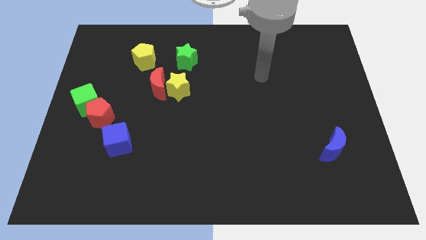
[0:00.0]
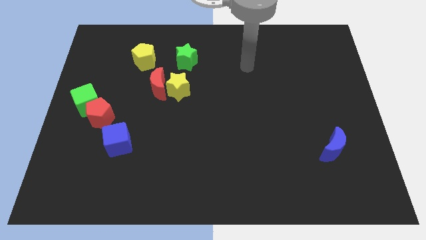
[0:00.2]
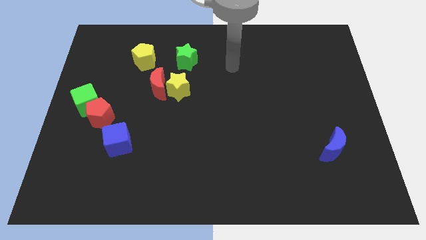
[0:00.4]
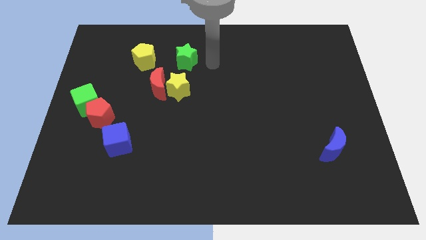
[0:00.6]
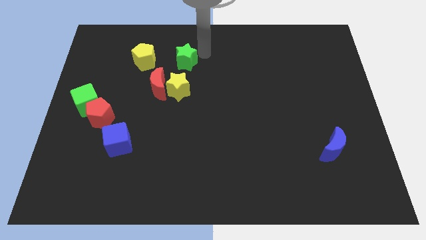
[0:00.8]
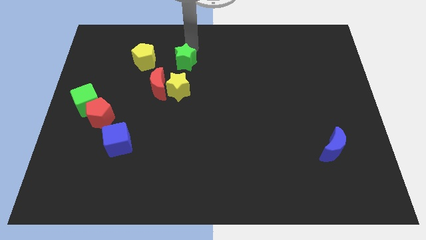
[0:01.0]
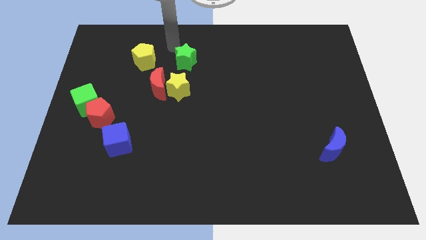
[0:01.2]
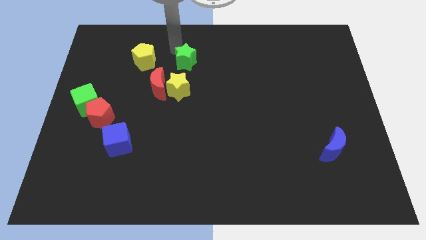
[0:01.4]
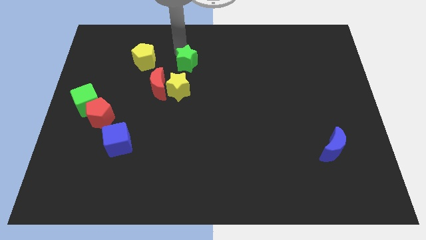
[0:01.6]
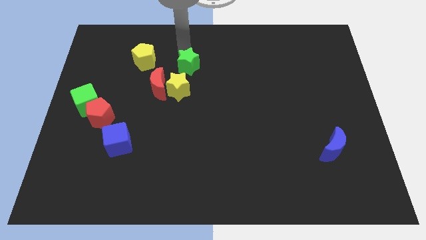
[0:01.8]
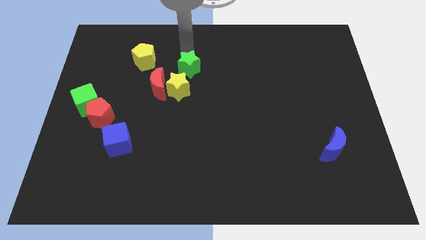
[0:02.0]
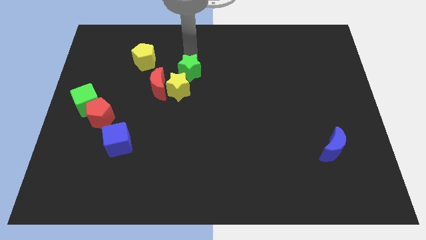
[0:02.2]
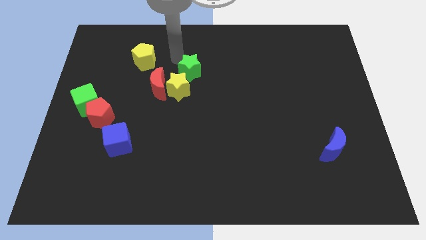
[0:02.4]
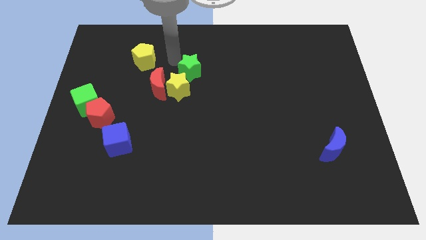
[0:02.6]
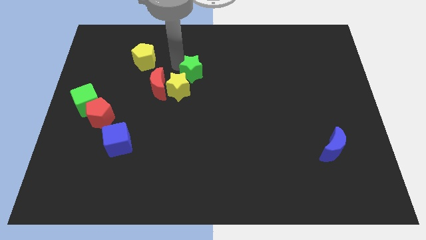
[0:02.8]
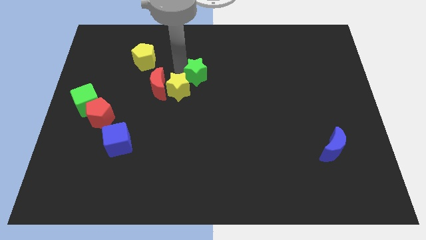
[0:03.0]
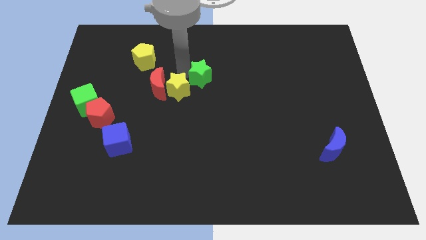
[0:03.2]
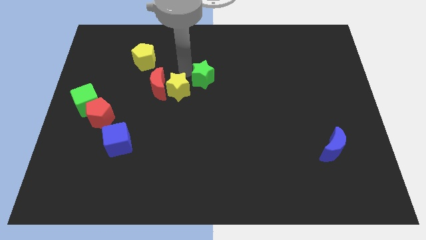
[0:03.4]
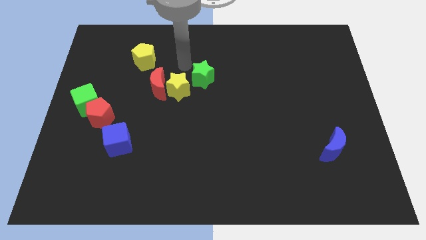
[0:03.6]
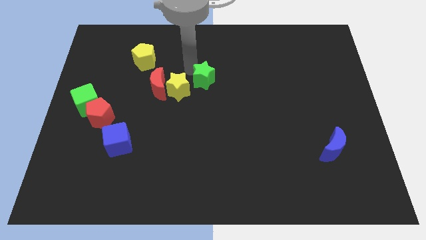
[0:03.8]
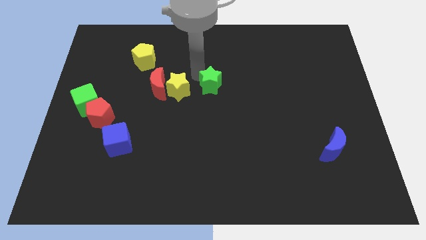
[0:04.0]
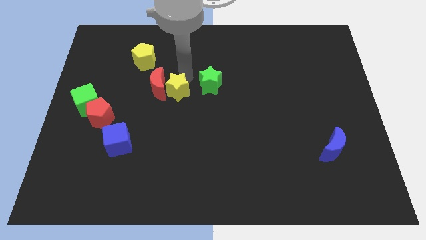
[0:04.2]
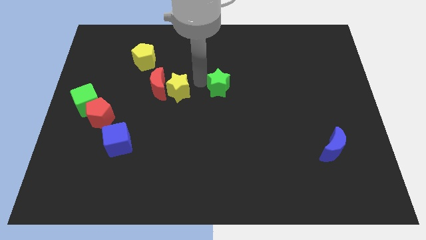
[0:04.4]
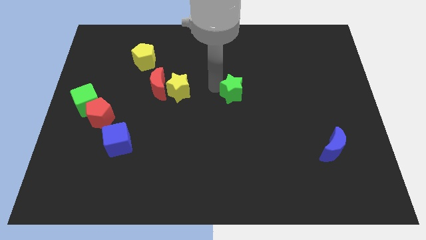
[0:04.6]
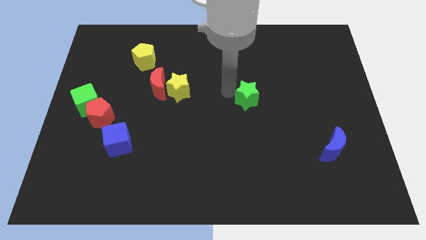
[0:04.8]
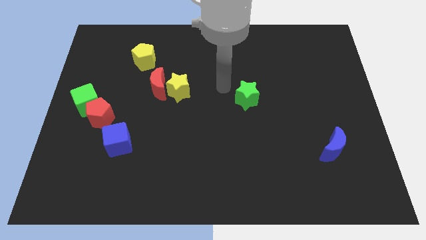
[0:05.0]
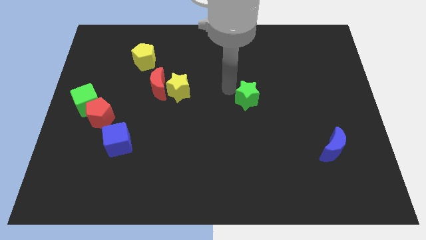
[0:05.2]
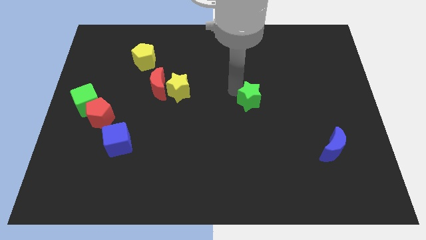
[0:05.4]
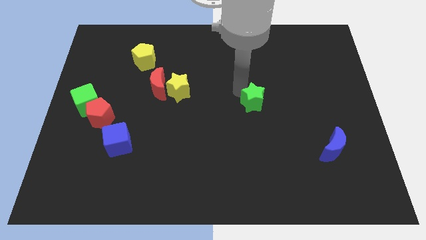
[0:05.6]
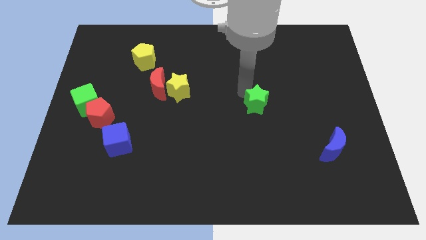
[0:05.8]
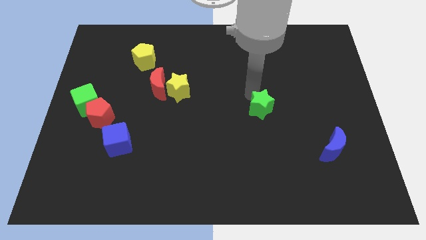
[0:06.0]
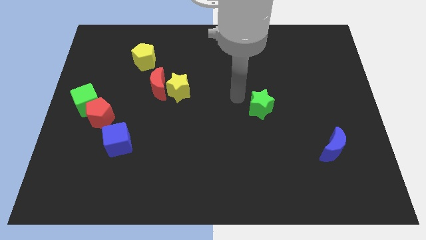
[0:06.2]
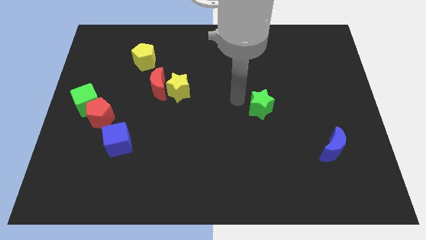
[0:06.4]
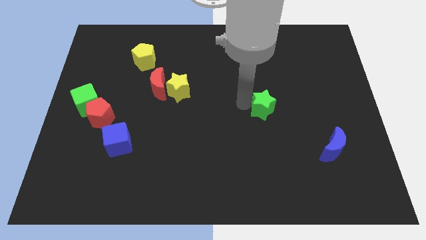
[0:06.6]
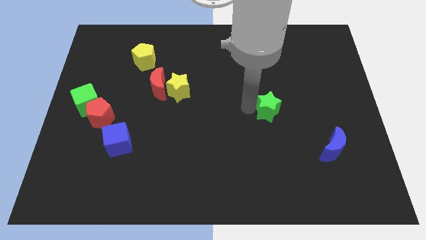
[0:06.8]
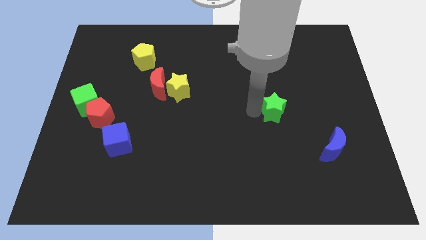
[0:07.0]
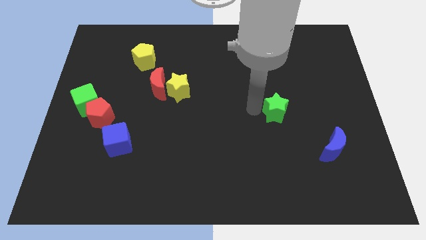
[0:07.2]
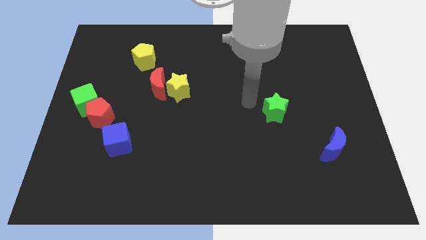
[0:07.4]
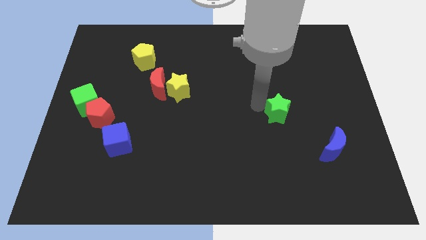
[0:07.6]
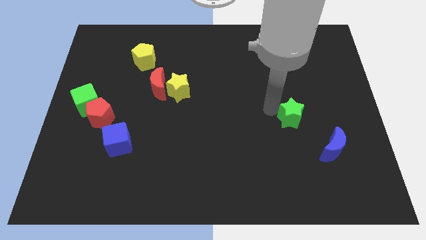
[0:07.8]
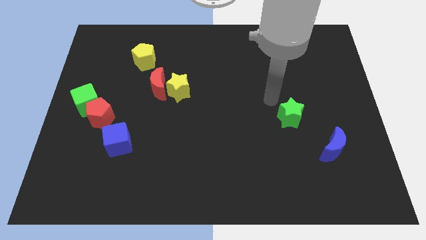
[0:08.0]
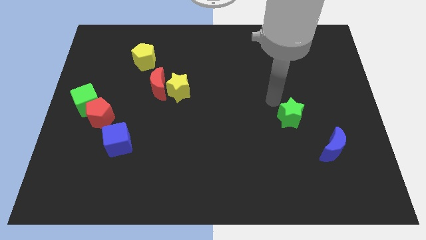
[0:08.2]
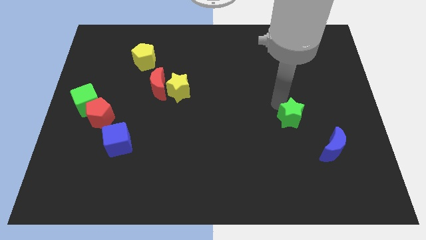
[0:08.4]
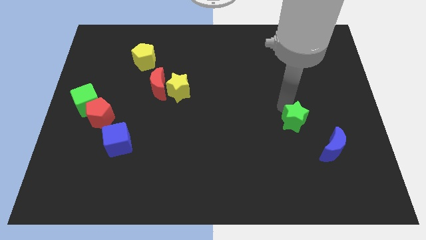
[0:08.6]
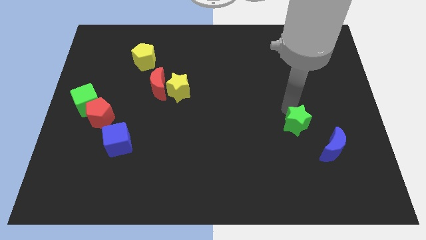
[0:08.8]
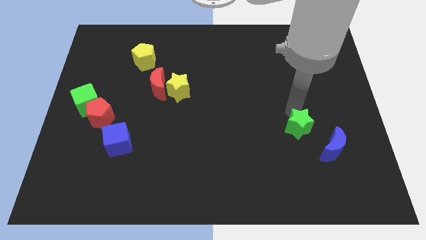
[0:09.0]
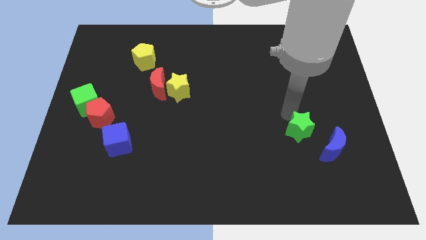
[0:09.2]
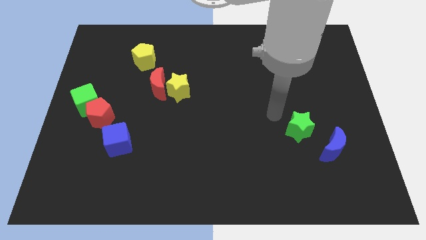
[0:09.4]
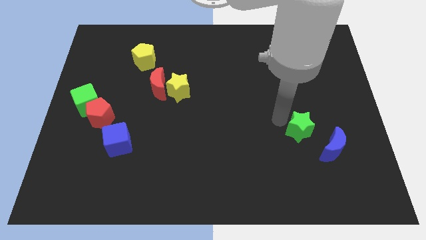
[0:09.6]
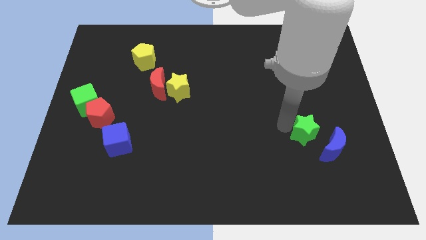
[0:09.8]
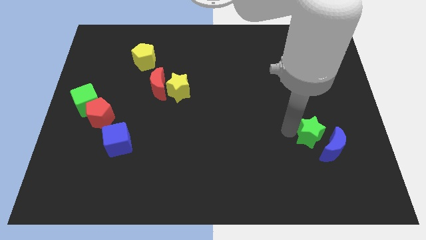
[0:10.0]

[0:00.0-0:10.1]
slide the green star close to the blue moon

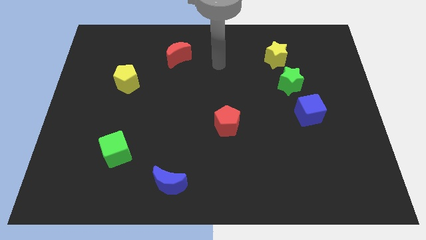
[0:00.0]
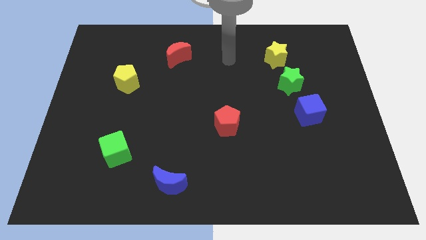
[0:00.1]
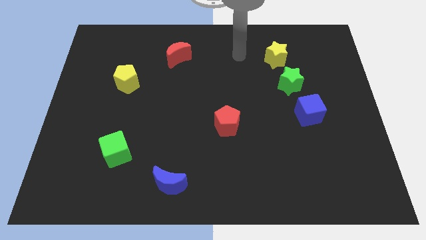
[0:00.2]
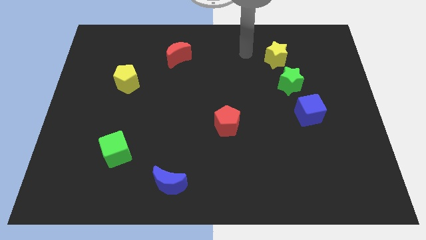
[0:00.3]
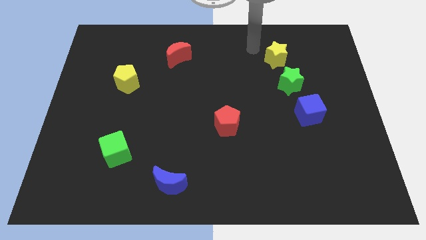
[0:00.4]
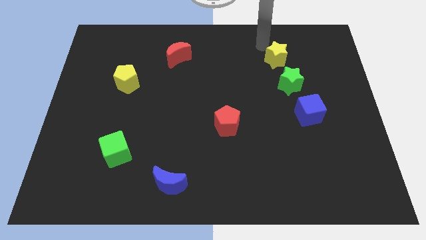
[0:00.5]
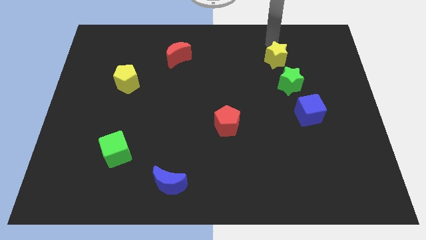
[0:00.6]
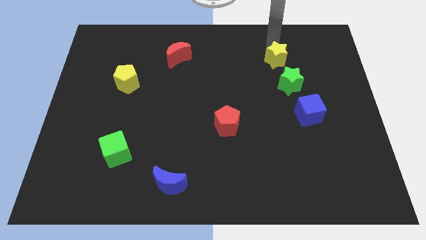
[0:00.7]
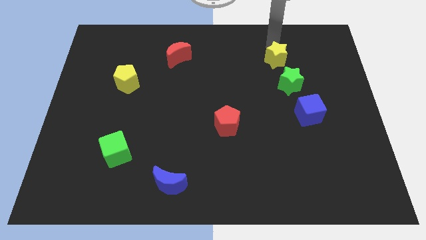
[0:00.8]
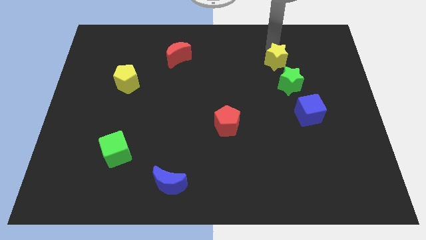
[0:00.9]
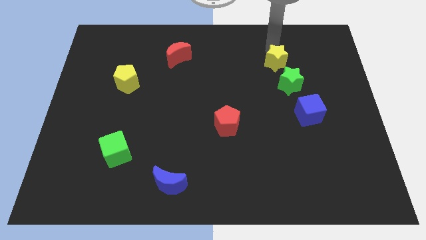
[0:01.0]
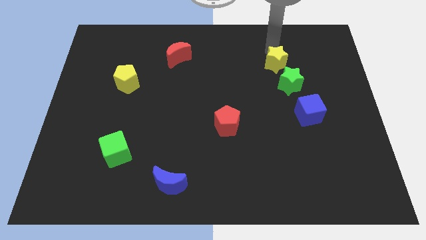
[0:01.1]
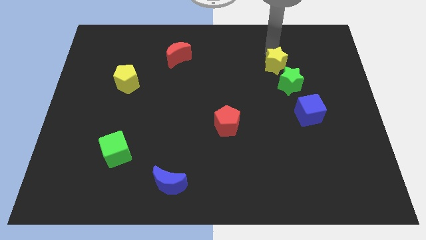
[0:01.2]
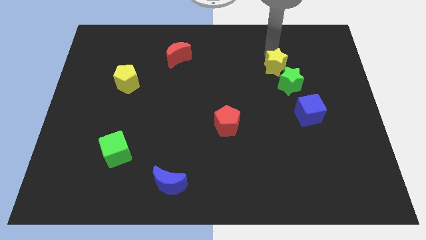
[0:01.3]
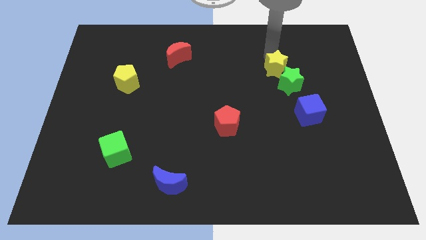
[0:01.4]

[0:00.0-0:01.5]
put the yellow star to the green star

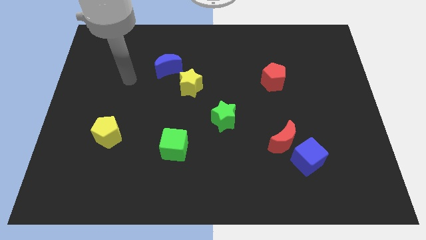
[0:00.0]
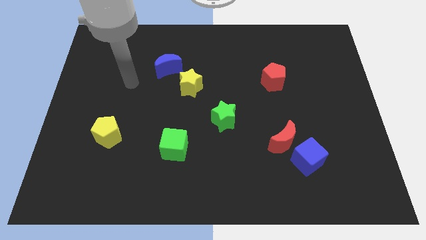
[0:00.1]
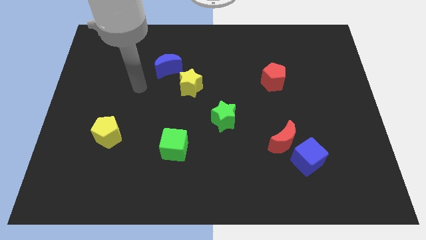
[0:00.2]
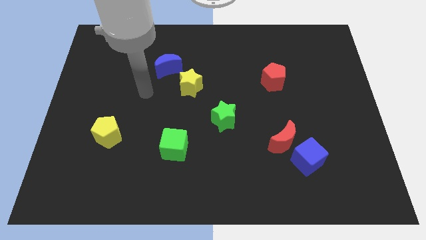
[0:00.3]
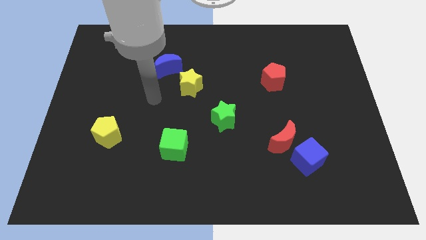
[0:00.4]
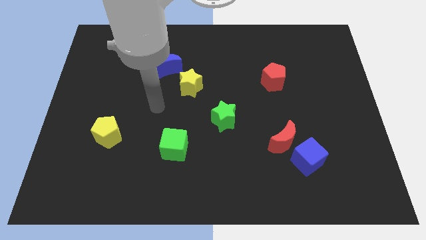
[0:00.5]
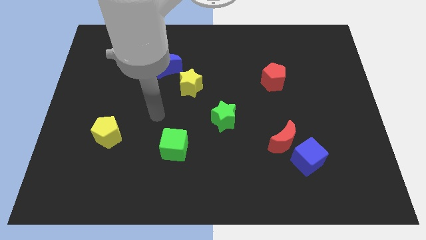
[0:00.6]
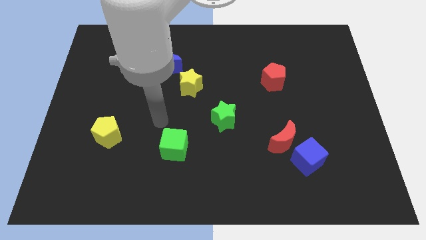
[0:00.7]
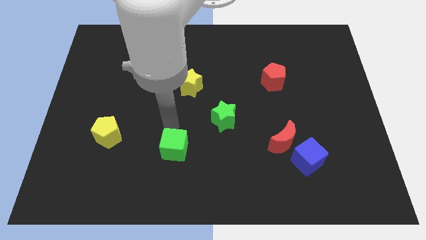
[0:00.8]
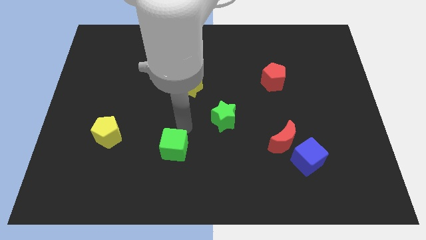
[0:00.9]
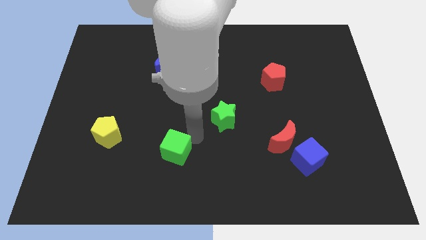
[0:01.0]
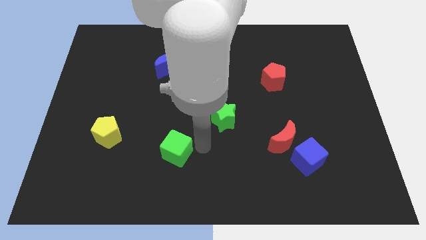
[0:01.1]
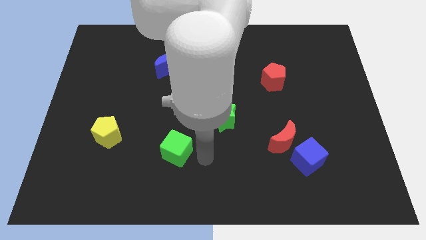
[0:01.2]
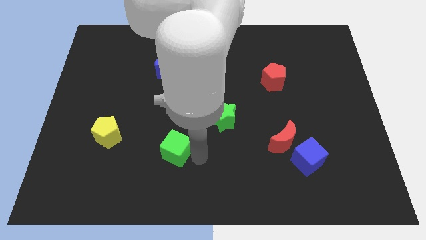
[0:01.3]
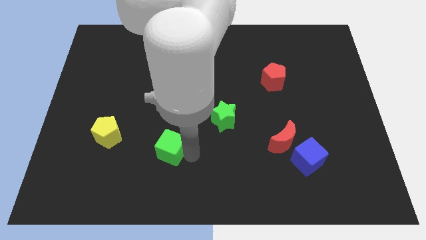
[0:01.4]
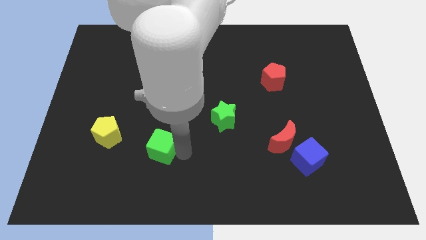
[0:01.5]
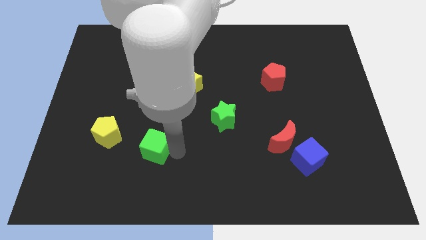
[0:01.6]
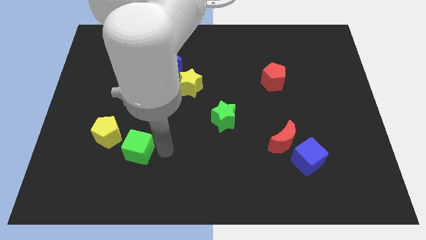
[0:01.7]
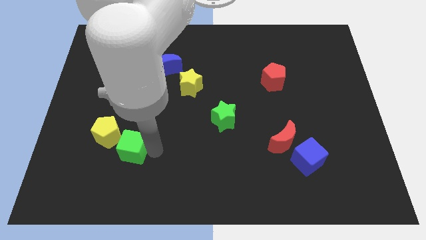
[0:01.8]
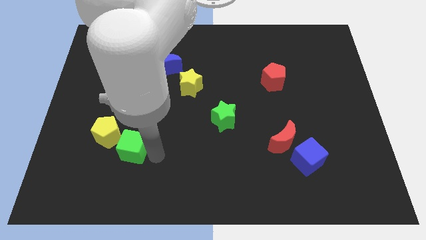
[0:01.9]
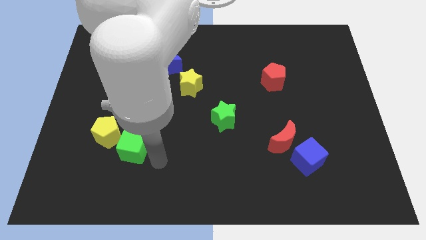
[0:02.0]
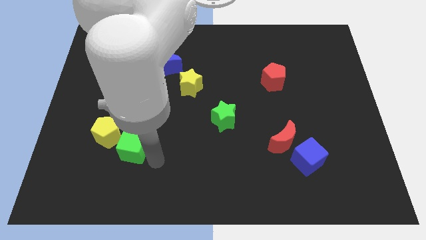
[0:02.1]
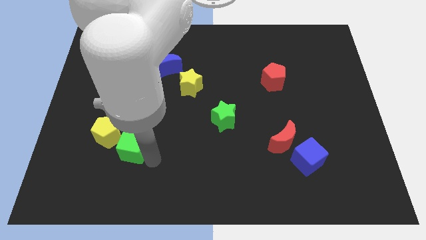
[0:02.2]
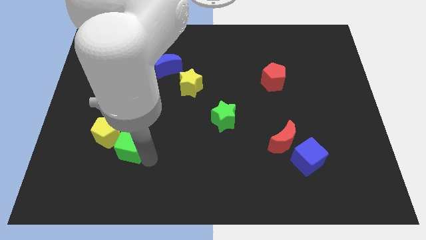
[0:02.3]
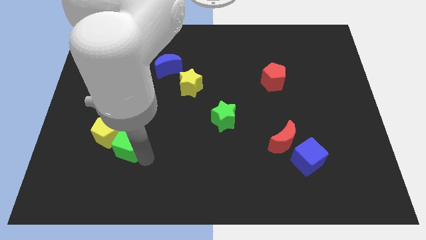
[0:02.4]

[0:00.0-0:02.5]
slide the green cube towards the yellow pentagon
